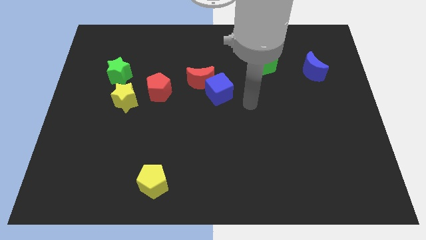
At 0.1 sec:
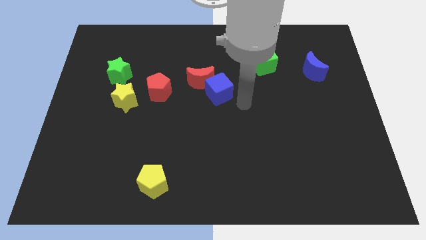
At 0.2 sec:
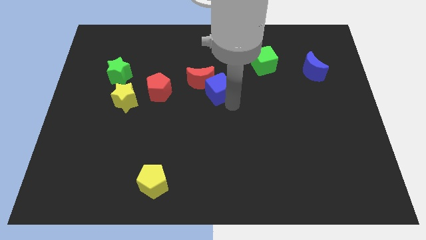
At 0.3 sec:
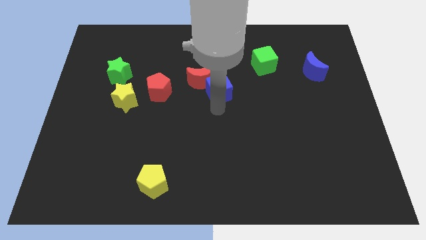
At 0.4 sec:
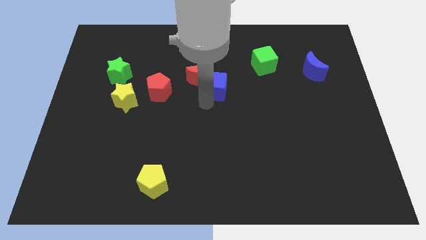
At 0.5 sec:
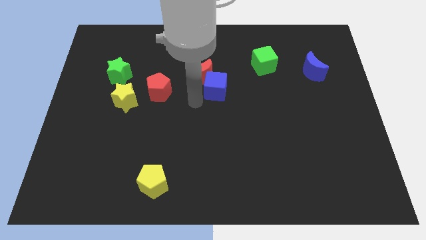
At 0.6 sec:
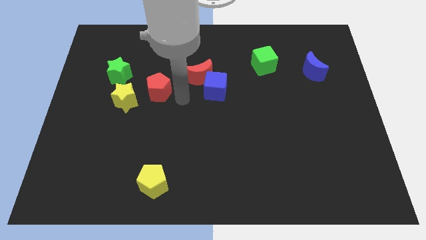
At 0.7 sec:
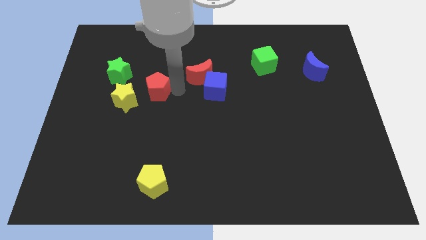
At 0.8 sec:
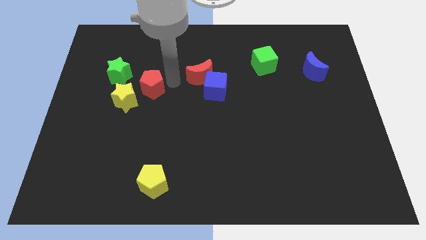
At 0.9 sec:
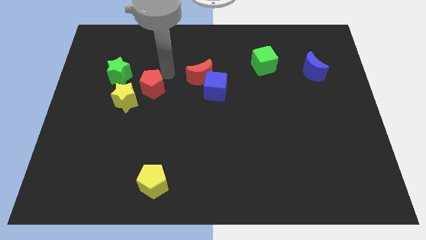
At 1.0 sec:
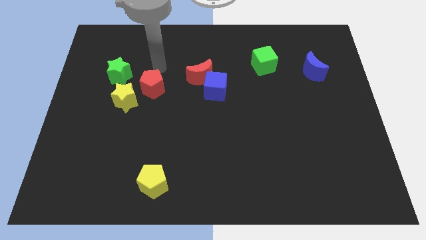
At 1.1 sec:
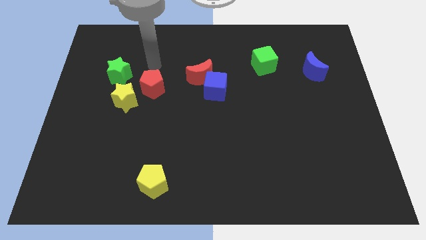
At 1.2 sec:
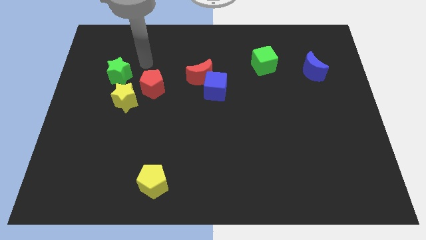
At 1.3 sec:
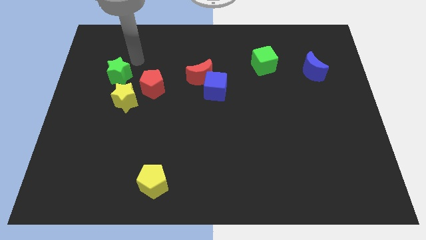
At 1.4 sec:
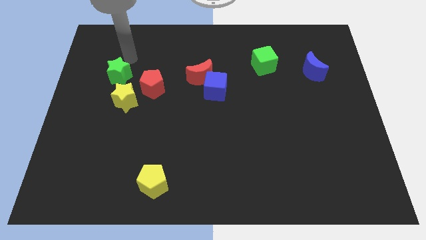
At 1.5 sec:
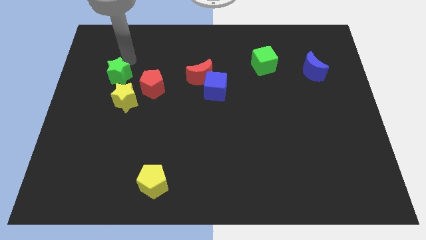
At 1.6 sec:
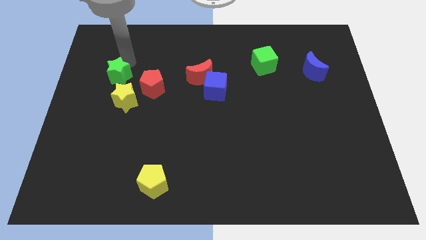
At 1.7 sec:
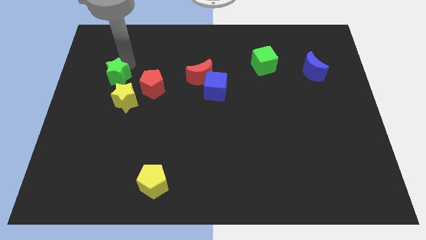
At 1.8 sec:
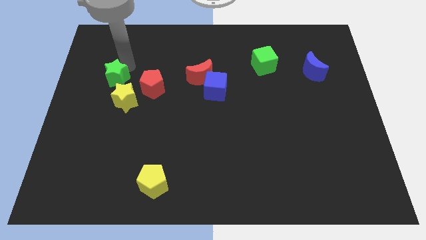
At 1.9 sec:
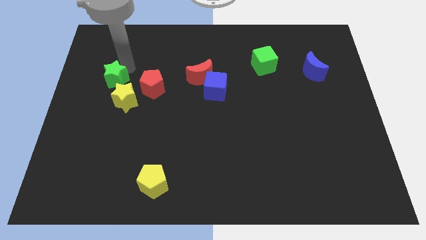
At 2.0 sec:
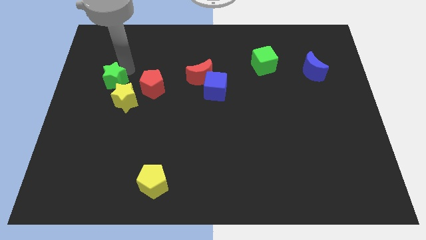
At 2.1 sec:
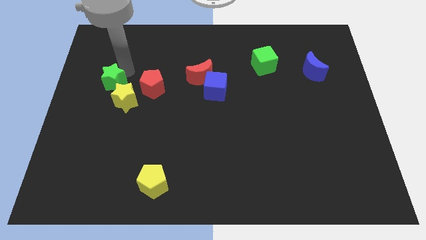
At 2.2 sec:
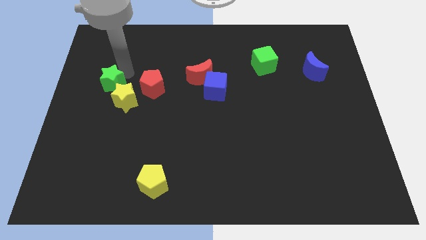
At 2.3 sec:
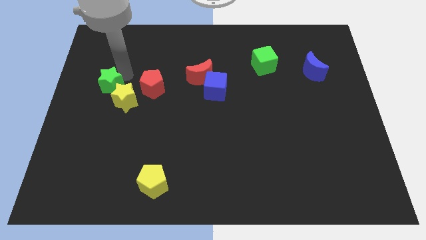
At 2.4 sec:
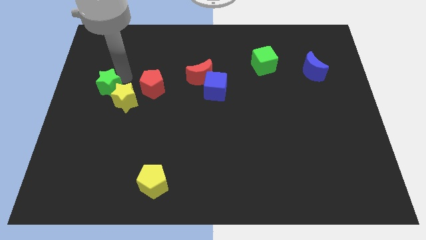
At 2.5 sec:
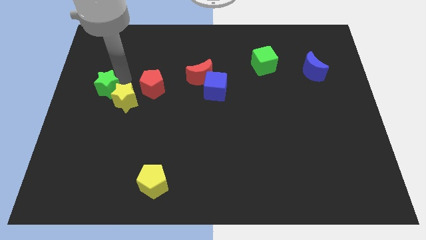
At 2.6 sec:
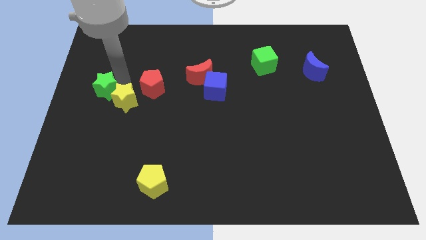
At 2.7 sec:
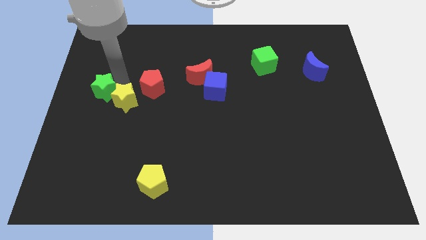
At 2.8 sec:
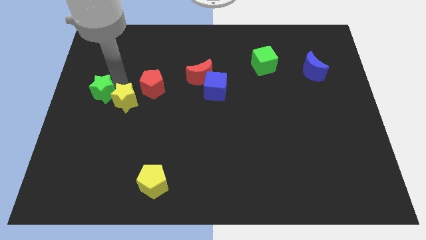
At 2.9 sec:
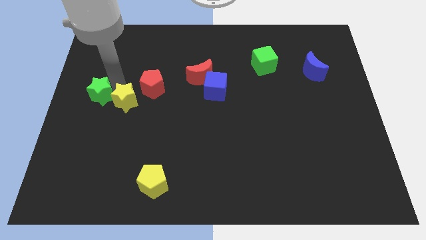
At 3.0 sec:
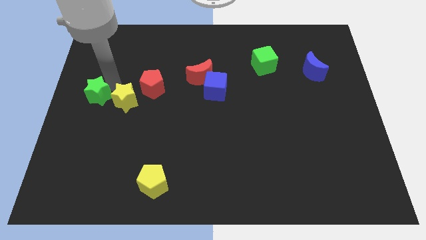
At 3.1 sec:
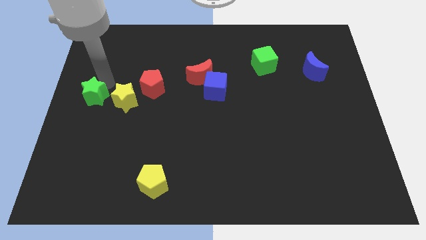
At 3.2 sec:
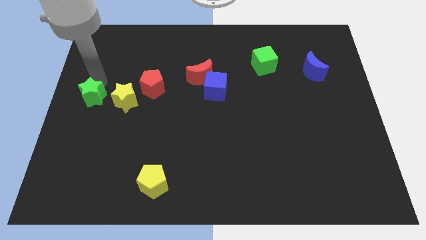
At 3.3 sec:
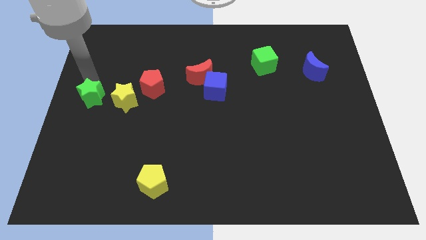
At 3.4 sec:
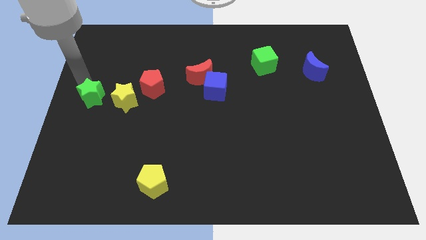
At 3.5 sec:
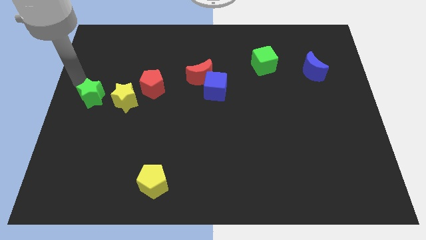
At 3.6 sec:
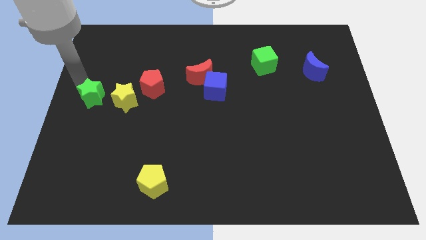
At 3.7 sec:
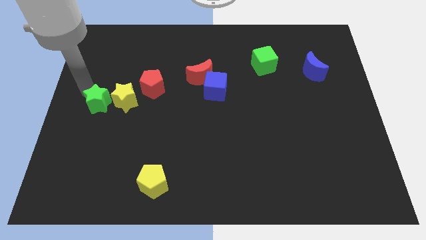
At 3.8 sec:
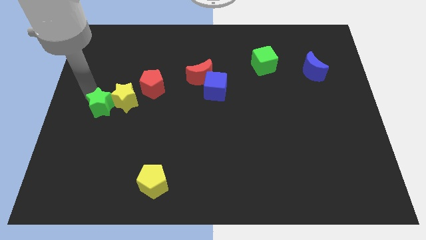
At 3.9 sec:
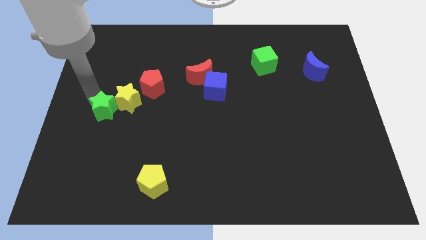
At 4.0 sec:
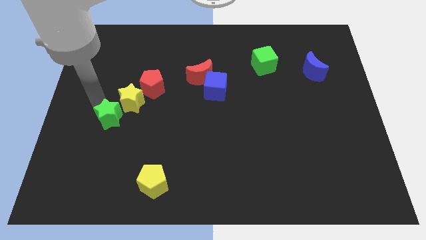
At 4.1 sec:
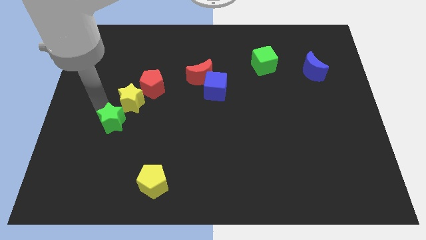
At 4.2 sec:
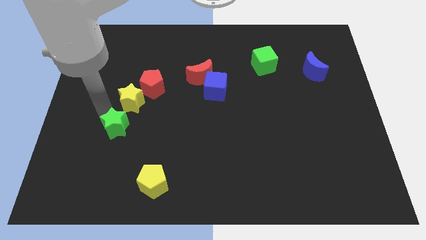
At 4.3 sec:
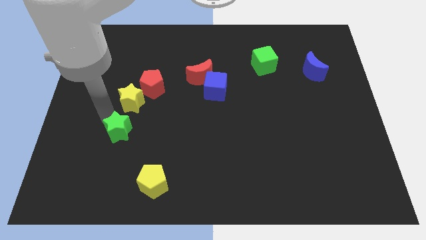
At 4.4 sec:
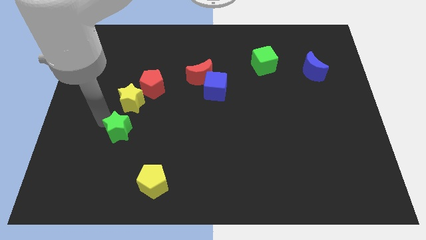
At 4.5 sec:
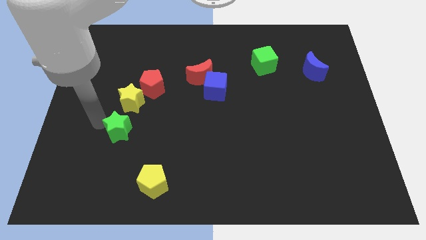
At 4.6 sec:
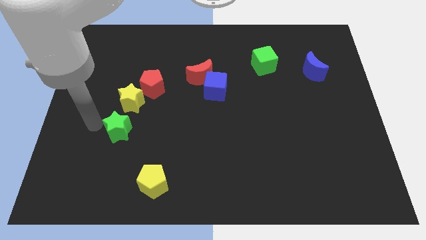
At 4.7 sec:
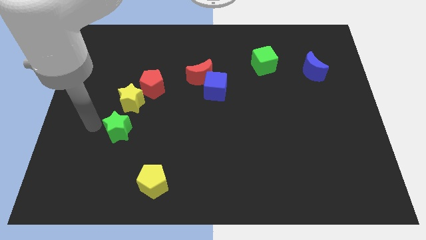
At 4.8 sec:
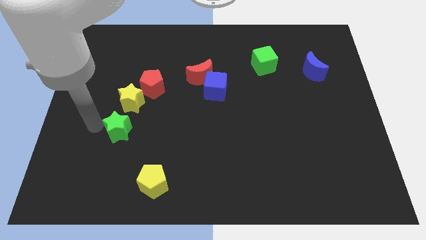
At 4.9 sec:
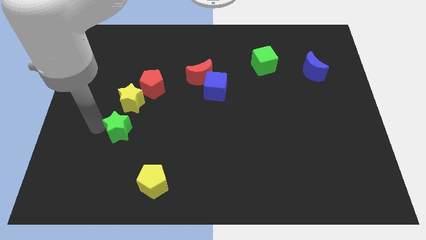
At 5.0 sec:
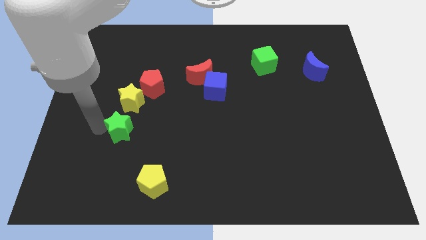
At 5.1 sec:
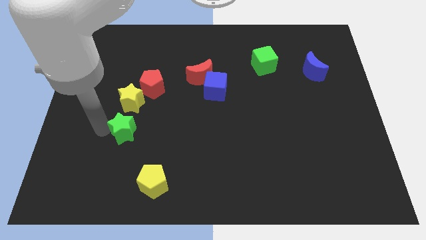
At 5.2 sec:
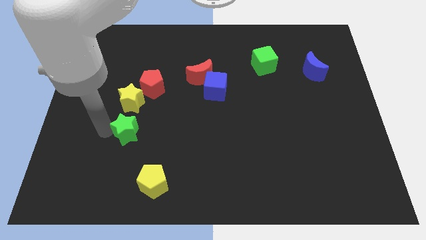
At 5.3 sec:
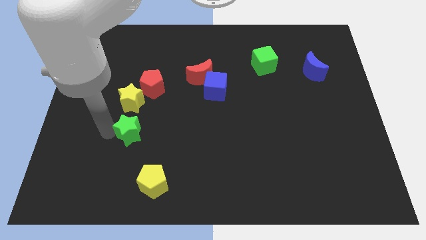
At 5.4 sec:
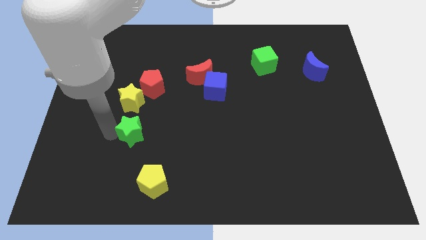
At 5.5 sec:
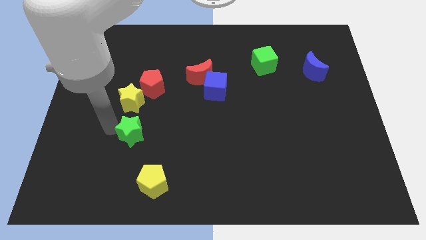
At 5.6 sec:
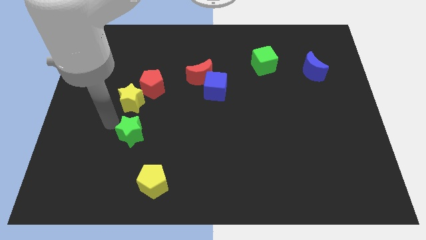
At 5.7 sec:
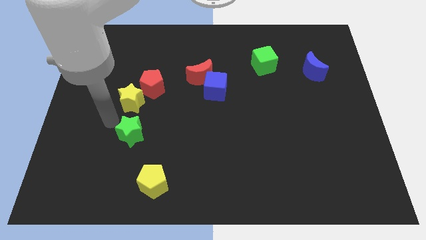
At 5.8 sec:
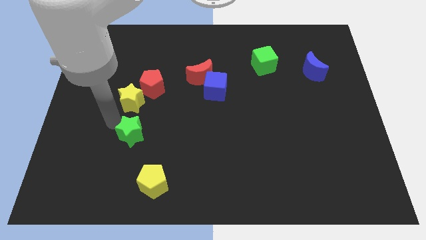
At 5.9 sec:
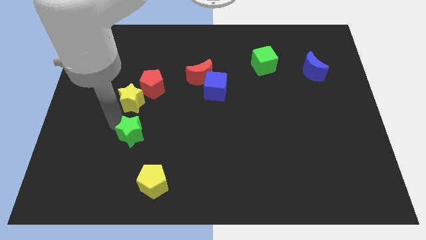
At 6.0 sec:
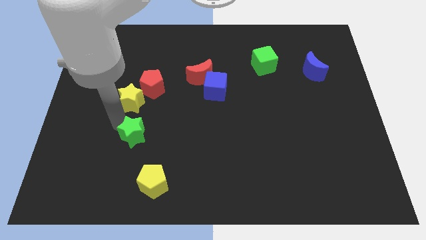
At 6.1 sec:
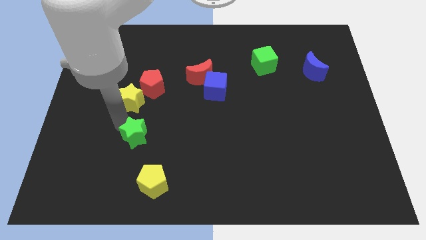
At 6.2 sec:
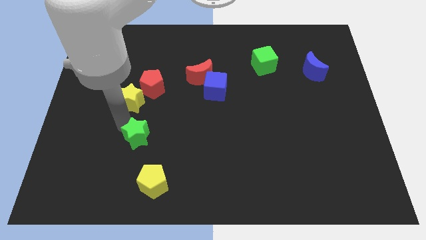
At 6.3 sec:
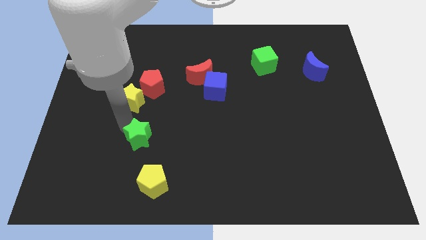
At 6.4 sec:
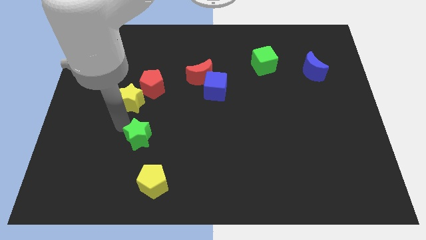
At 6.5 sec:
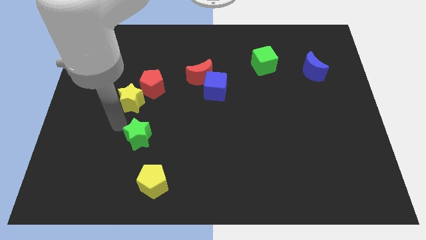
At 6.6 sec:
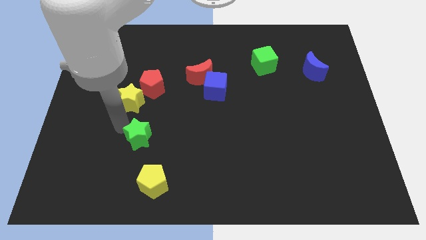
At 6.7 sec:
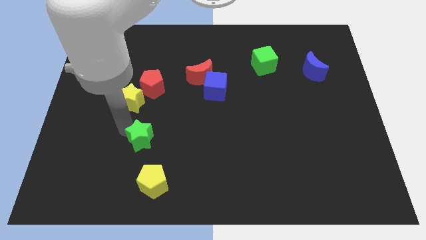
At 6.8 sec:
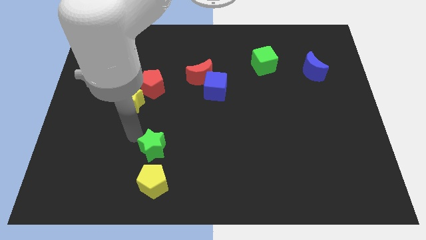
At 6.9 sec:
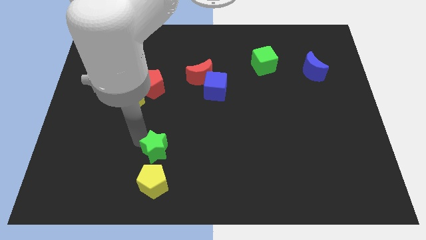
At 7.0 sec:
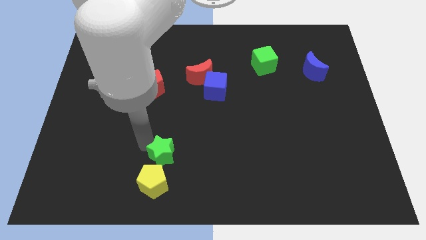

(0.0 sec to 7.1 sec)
push the green star to the top right side of the yellow pentagon
